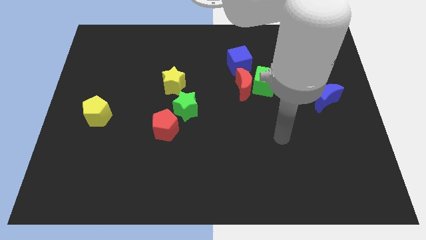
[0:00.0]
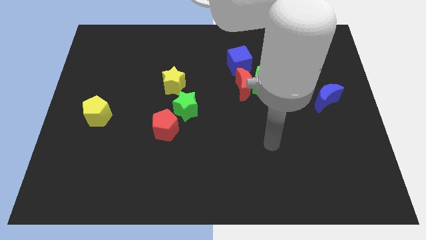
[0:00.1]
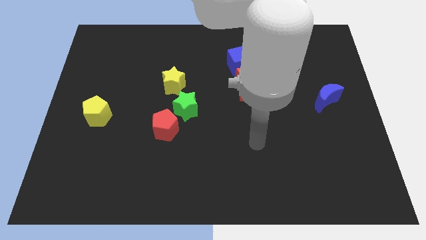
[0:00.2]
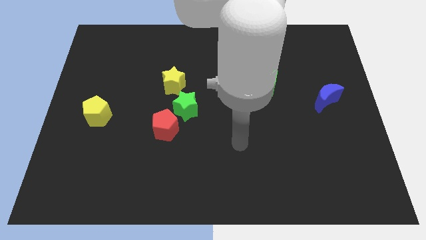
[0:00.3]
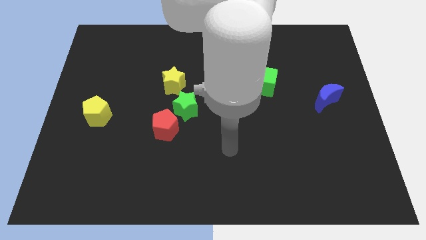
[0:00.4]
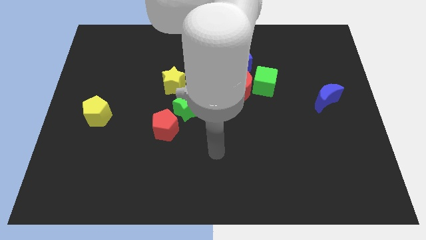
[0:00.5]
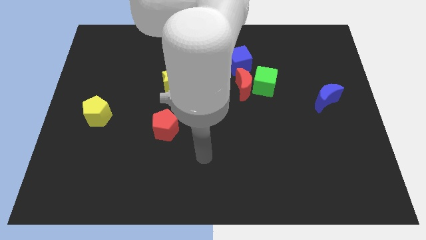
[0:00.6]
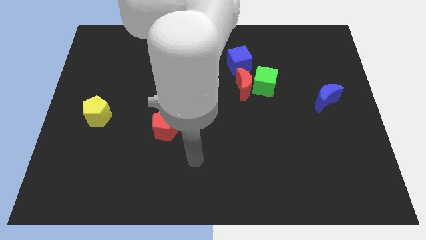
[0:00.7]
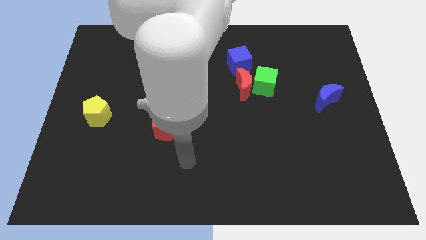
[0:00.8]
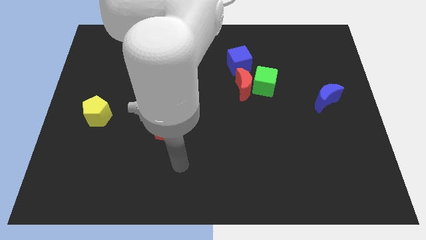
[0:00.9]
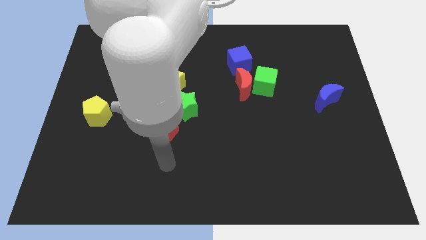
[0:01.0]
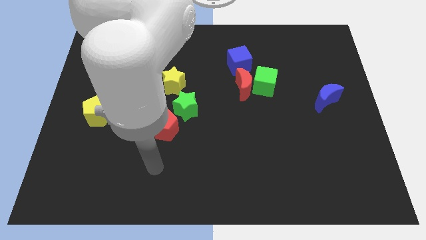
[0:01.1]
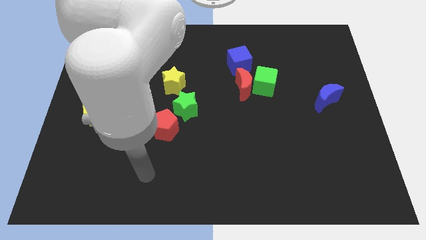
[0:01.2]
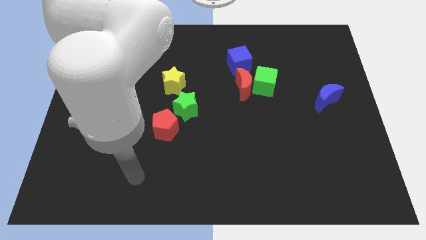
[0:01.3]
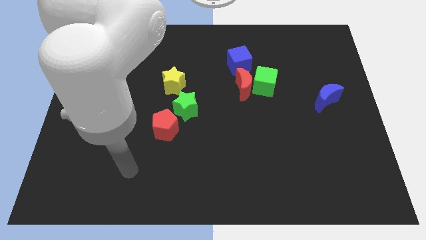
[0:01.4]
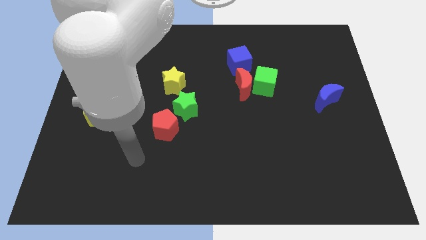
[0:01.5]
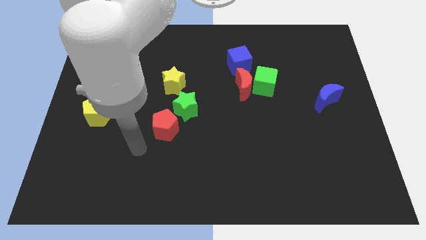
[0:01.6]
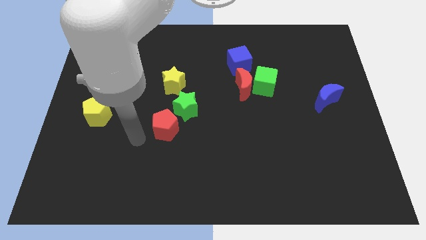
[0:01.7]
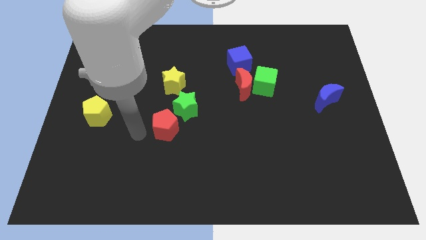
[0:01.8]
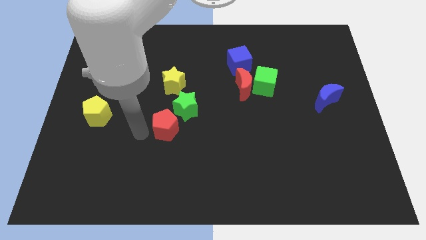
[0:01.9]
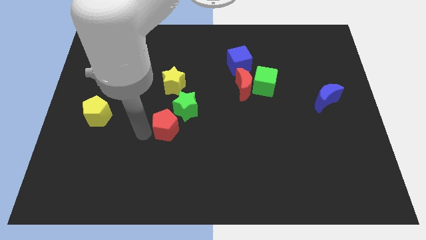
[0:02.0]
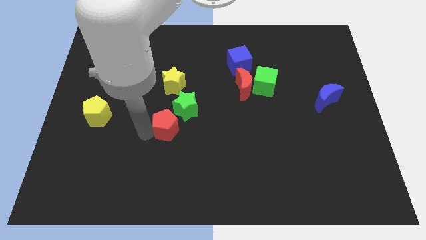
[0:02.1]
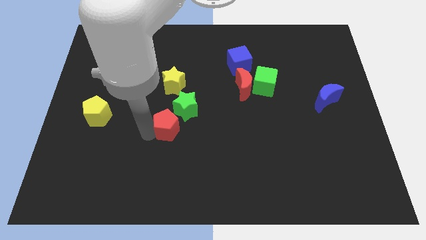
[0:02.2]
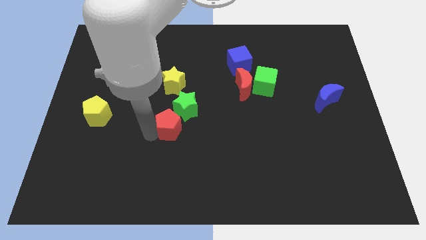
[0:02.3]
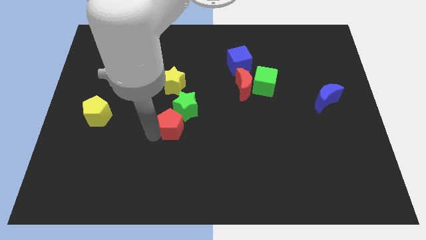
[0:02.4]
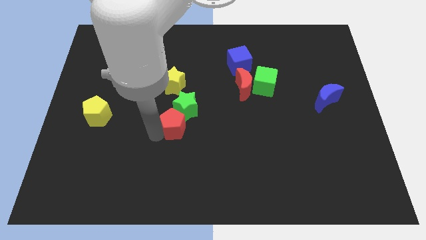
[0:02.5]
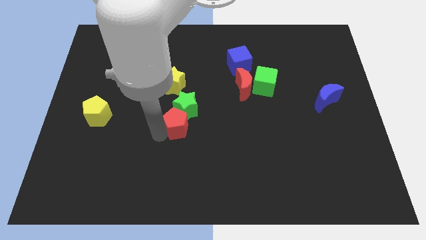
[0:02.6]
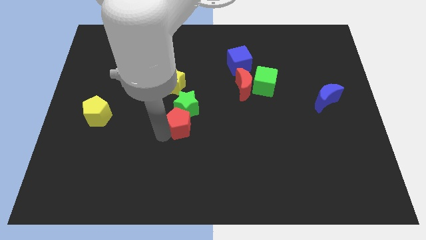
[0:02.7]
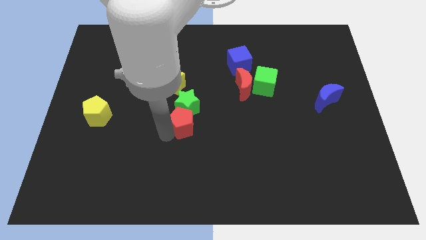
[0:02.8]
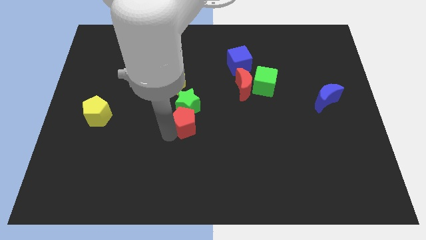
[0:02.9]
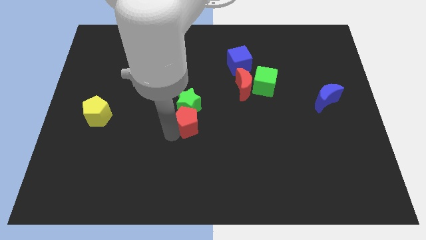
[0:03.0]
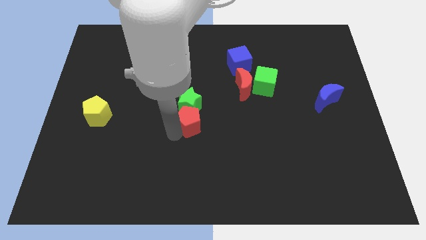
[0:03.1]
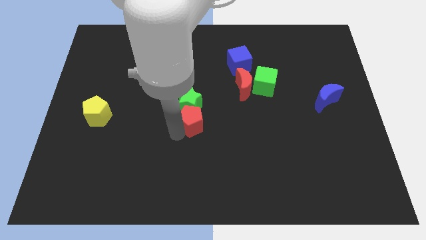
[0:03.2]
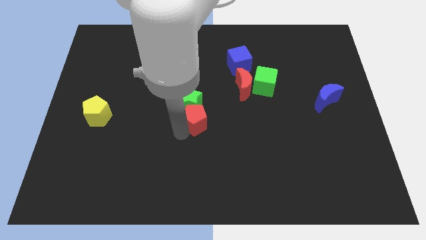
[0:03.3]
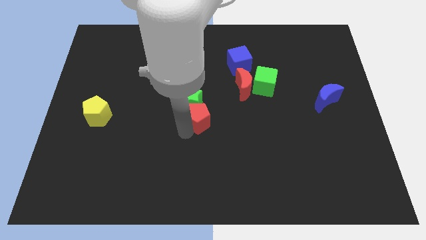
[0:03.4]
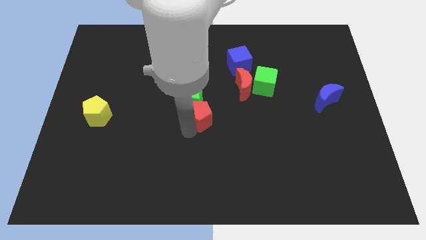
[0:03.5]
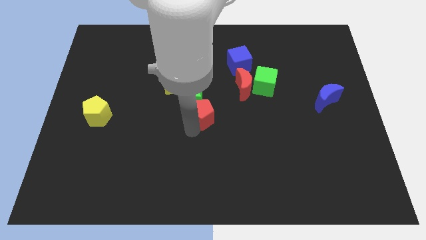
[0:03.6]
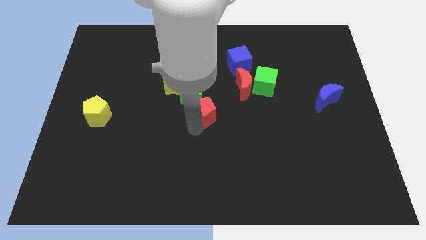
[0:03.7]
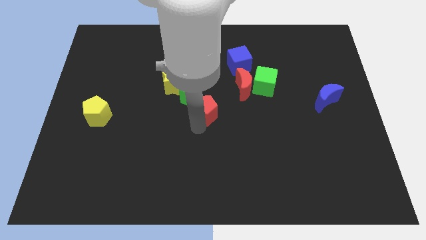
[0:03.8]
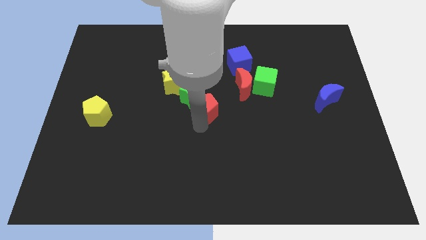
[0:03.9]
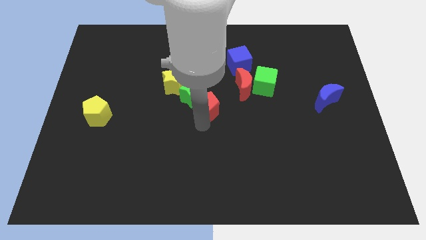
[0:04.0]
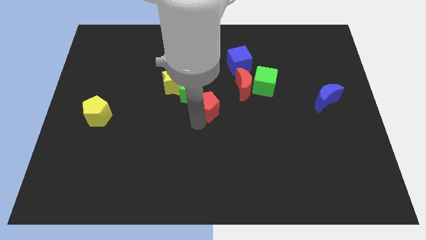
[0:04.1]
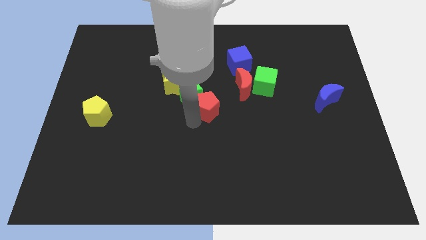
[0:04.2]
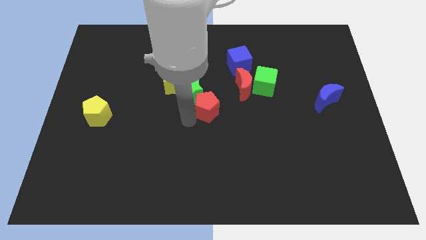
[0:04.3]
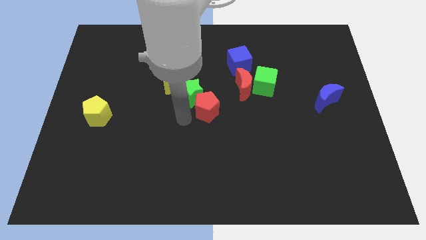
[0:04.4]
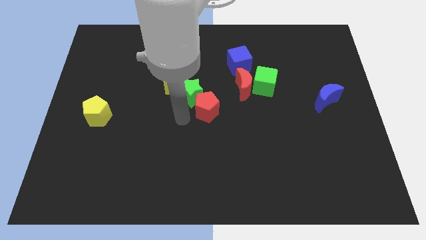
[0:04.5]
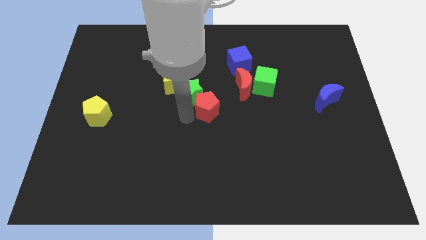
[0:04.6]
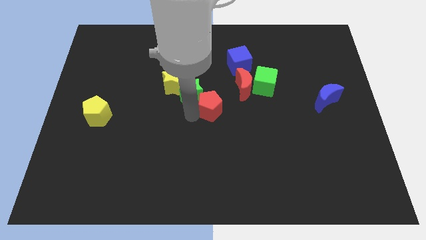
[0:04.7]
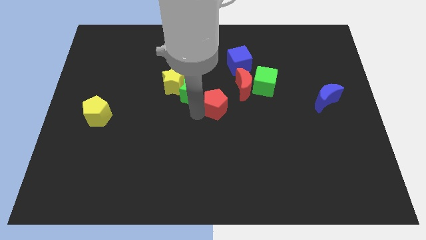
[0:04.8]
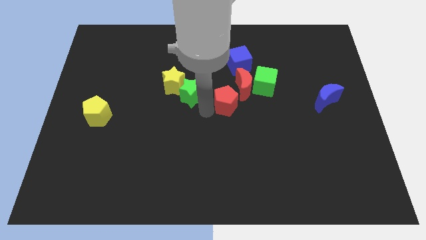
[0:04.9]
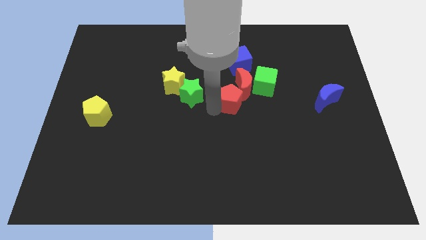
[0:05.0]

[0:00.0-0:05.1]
push the red pentagon close to the red moon

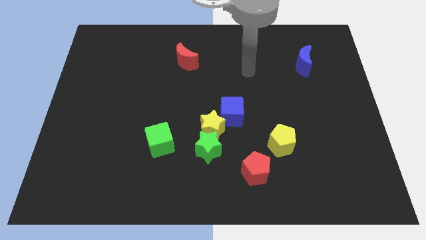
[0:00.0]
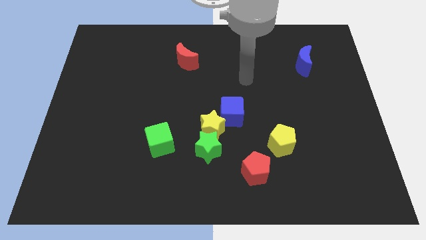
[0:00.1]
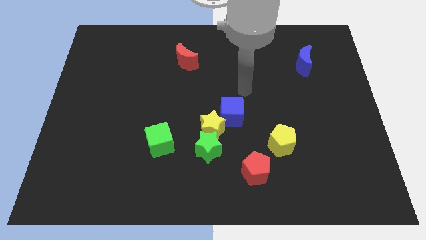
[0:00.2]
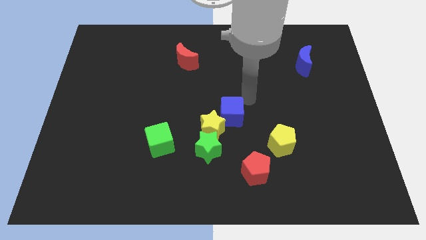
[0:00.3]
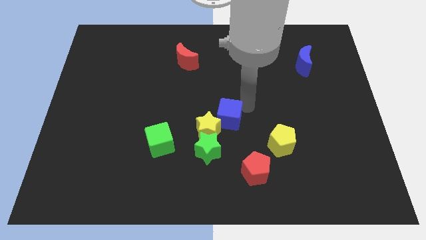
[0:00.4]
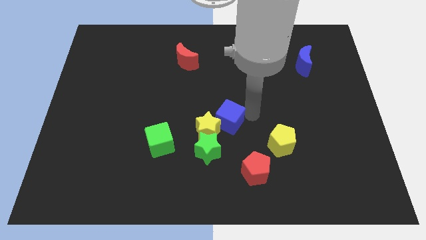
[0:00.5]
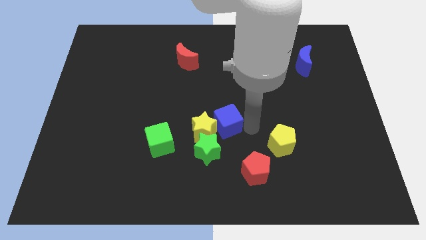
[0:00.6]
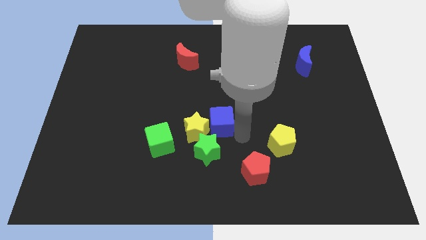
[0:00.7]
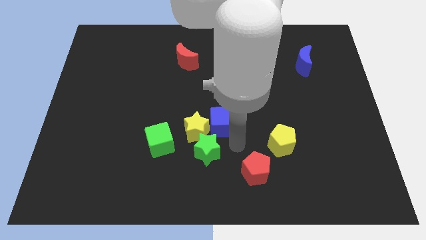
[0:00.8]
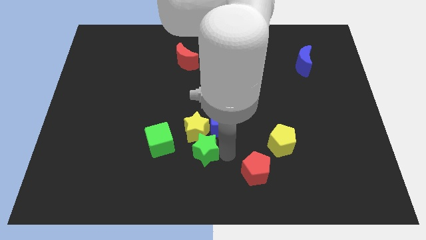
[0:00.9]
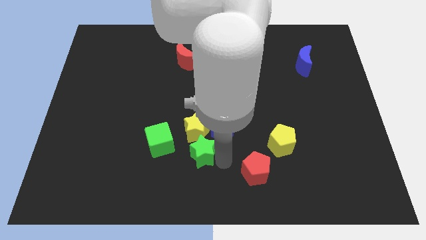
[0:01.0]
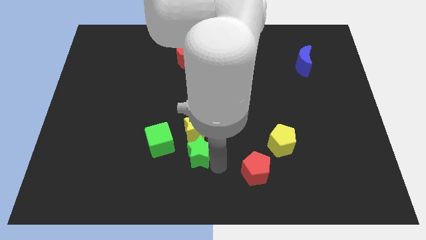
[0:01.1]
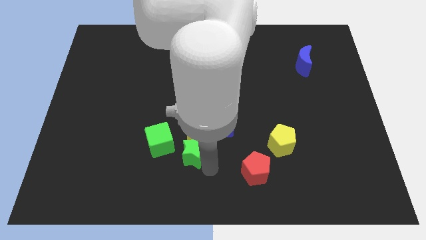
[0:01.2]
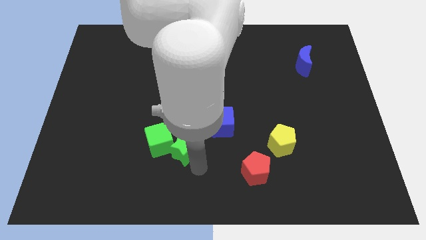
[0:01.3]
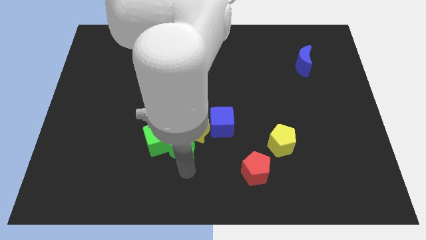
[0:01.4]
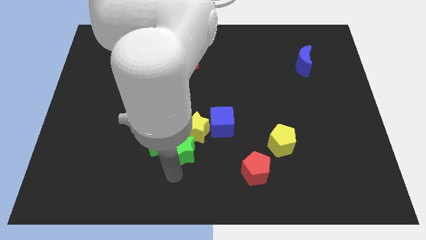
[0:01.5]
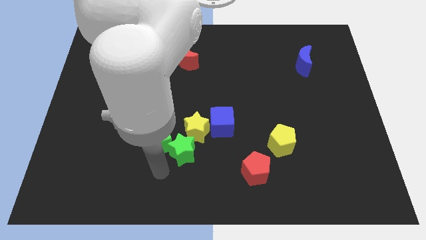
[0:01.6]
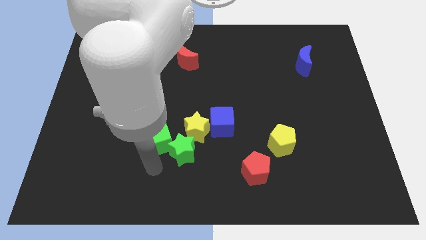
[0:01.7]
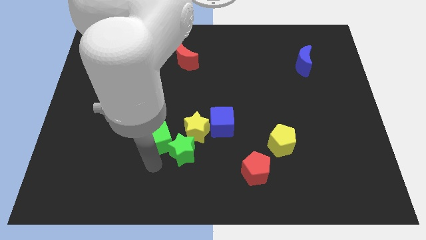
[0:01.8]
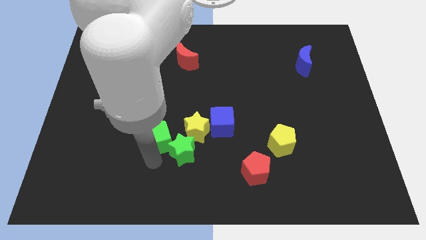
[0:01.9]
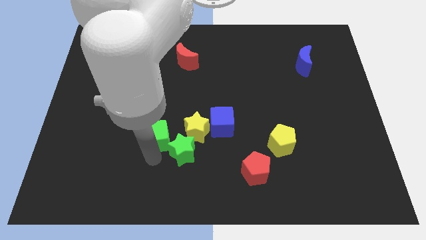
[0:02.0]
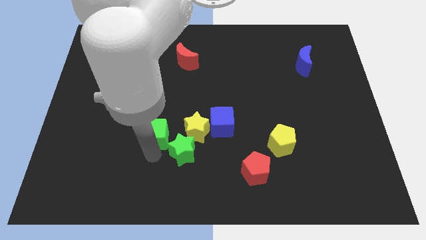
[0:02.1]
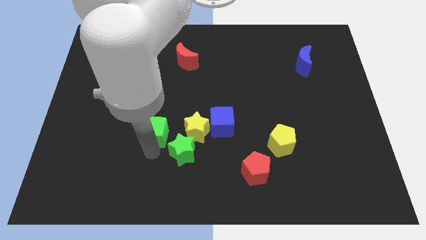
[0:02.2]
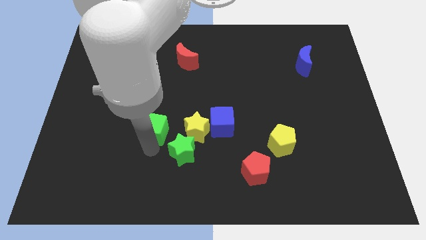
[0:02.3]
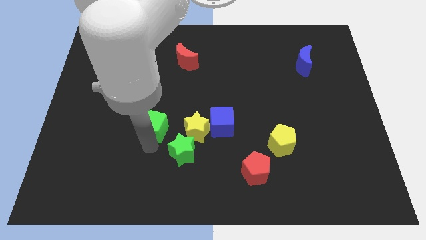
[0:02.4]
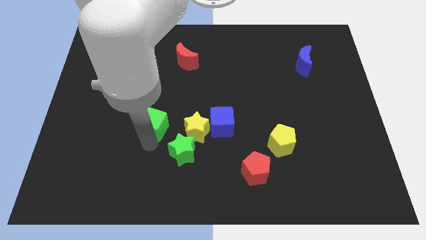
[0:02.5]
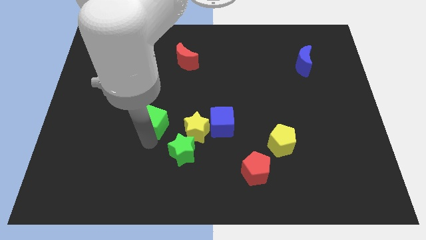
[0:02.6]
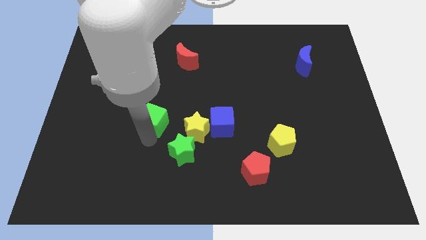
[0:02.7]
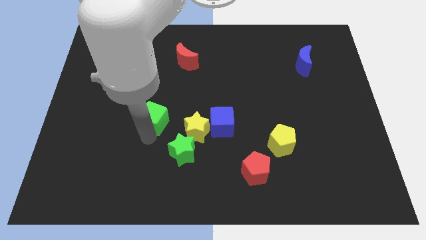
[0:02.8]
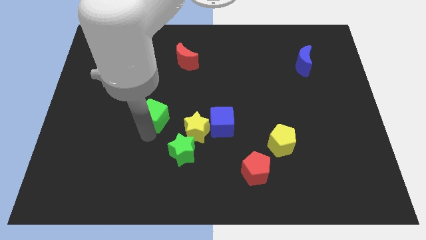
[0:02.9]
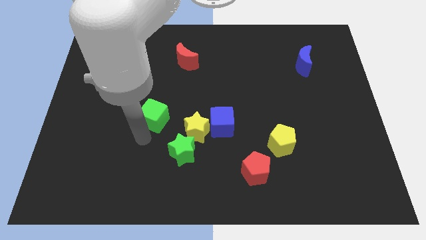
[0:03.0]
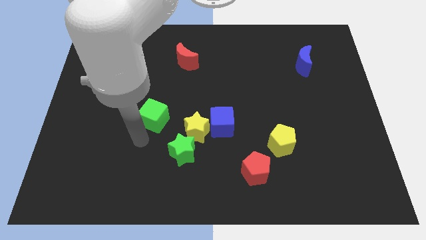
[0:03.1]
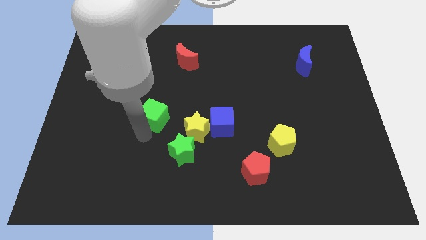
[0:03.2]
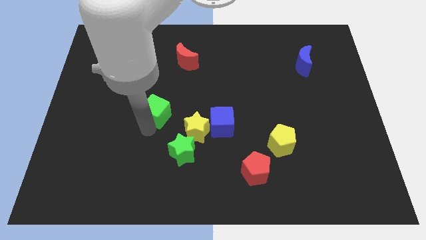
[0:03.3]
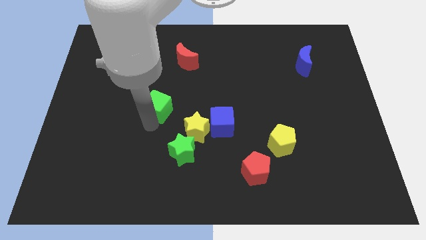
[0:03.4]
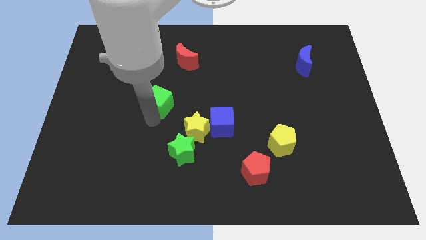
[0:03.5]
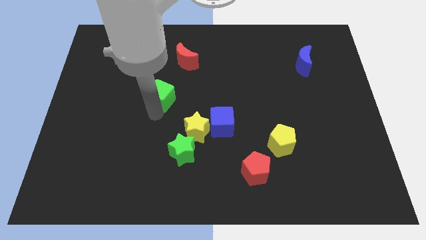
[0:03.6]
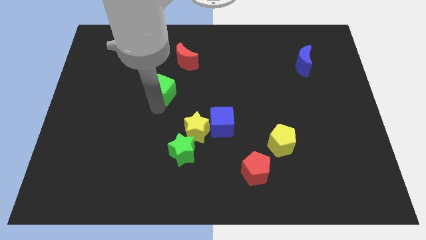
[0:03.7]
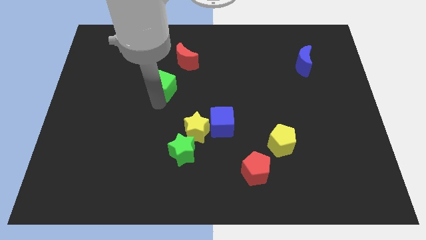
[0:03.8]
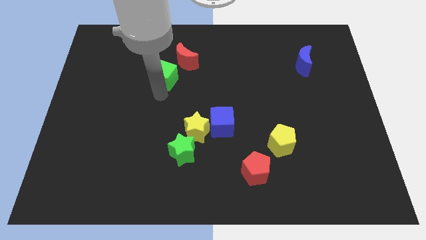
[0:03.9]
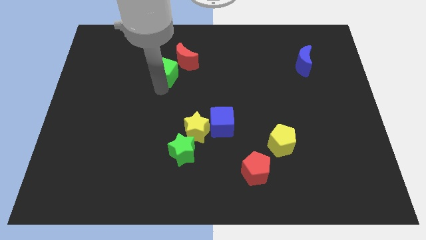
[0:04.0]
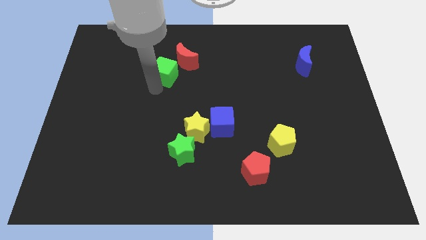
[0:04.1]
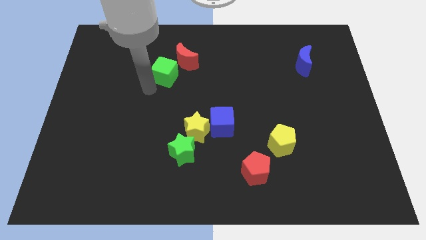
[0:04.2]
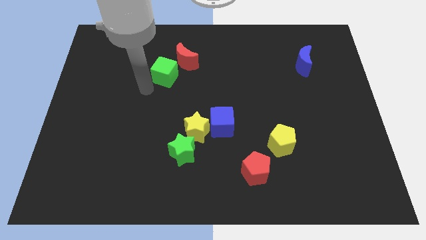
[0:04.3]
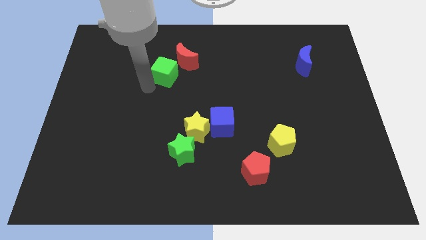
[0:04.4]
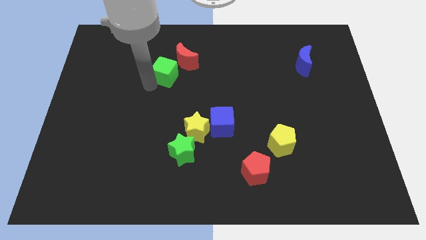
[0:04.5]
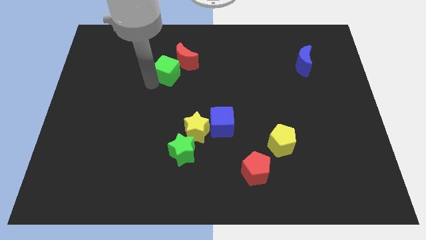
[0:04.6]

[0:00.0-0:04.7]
move the green cube next to the red moon
